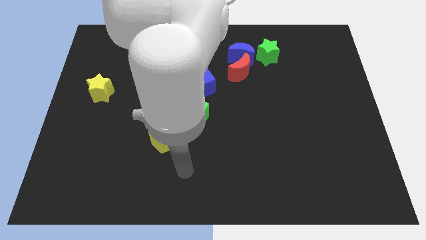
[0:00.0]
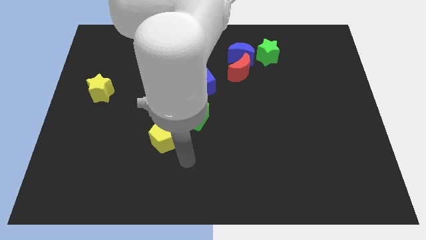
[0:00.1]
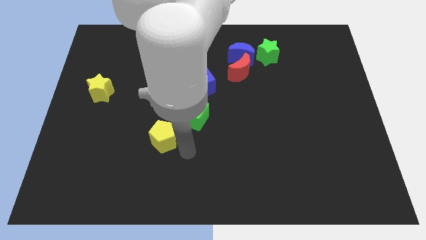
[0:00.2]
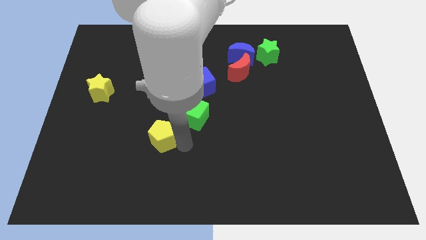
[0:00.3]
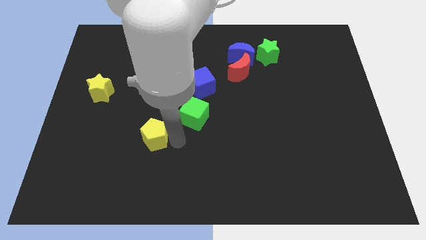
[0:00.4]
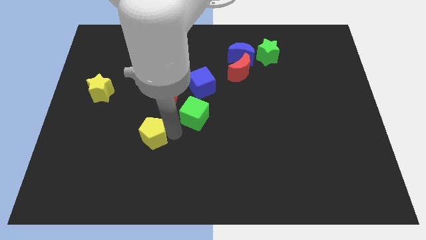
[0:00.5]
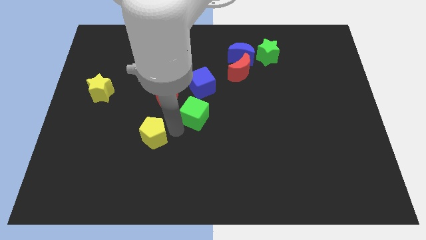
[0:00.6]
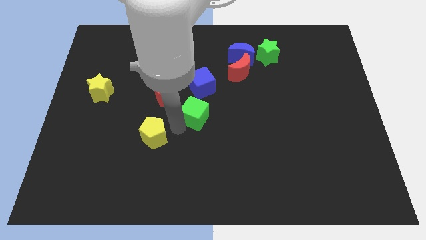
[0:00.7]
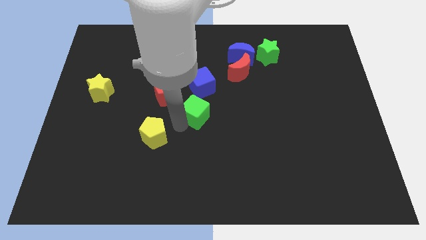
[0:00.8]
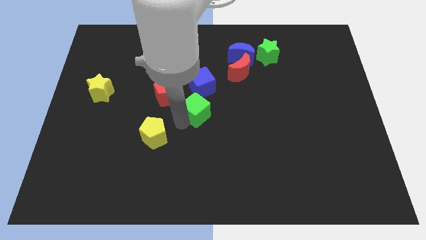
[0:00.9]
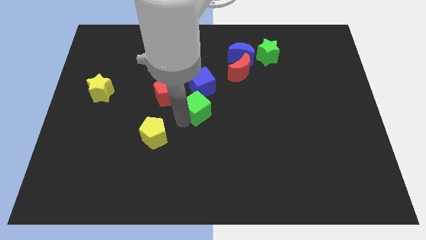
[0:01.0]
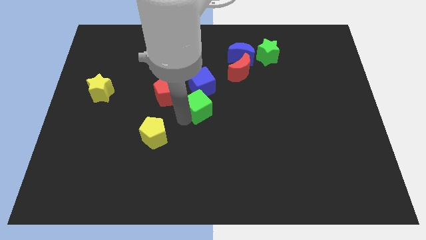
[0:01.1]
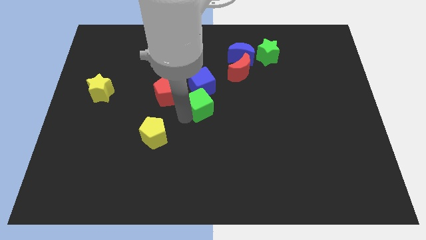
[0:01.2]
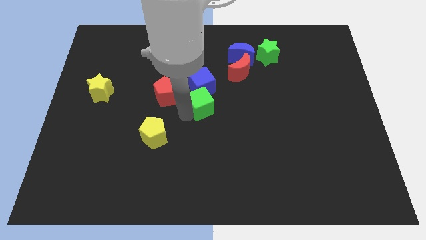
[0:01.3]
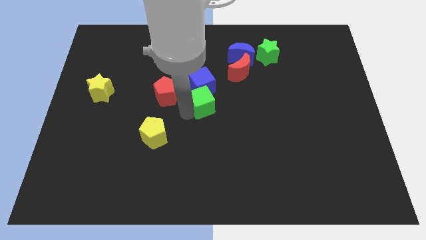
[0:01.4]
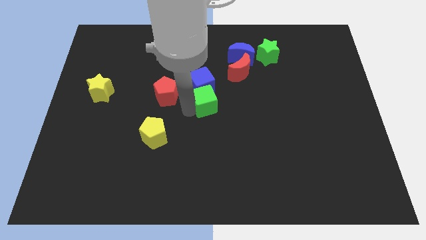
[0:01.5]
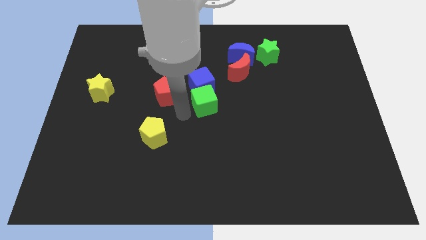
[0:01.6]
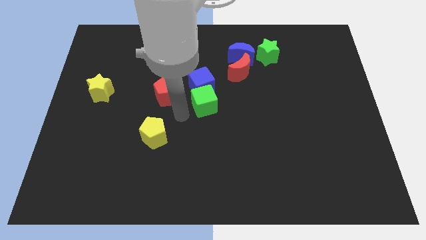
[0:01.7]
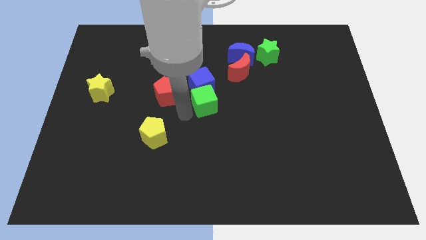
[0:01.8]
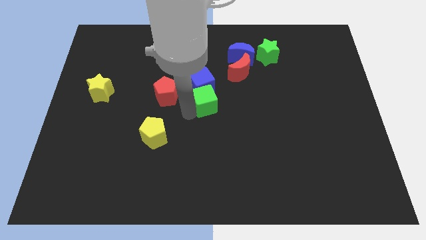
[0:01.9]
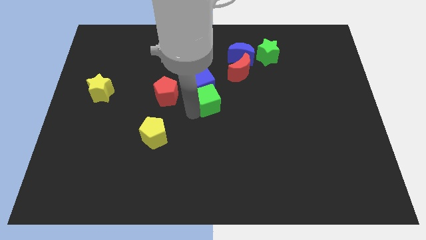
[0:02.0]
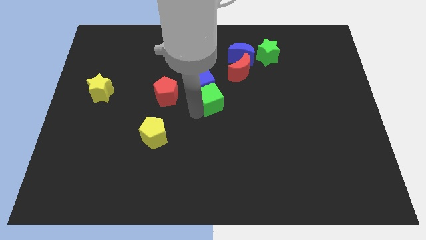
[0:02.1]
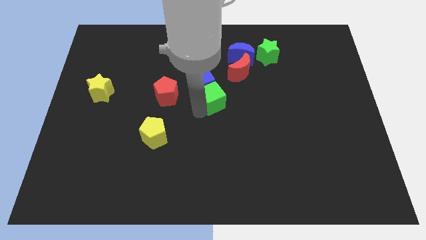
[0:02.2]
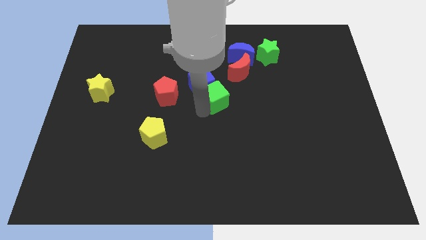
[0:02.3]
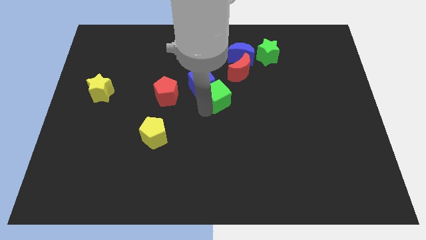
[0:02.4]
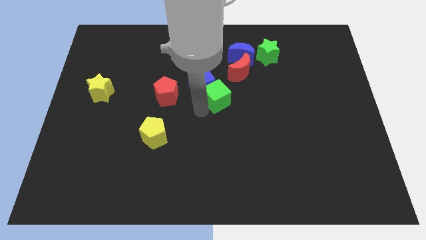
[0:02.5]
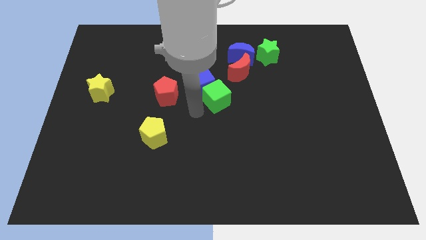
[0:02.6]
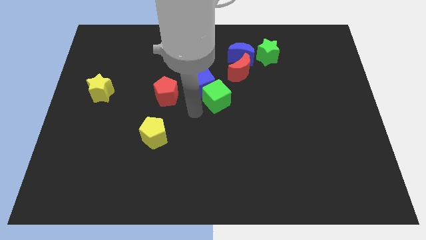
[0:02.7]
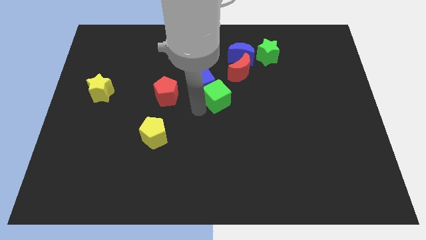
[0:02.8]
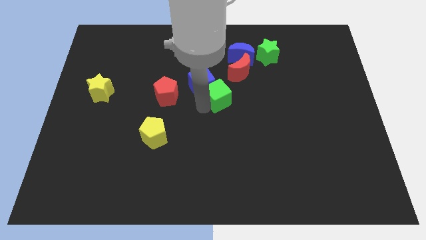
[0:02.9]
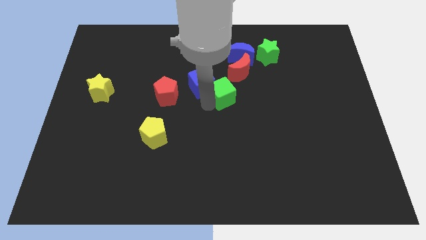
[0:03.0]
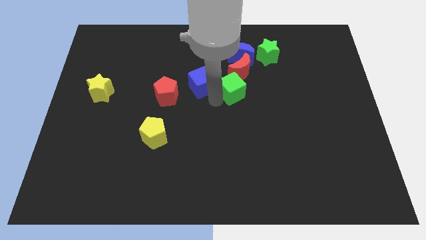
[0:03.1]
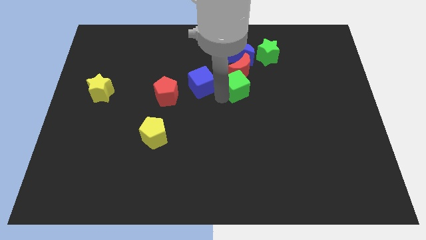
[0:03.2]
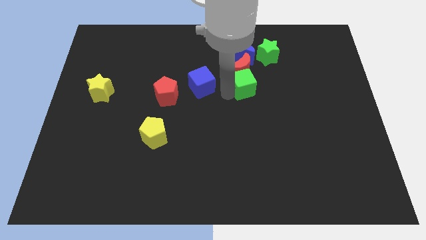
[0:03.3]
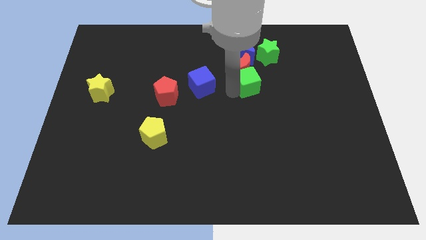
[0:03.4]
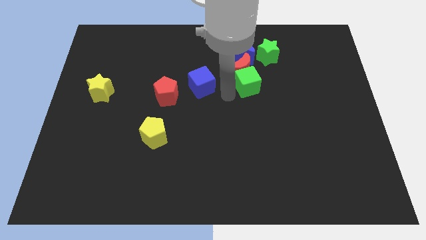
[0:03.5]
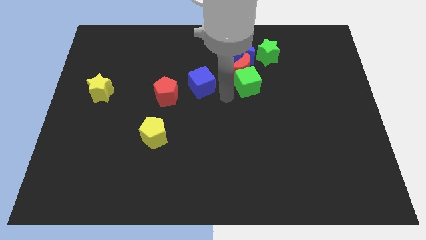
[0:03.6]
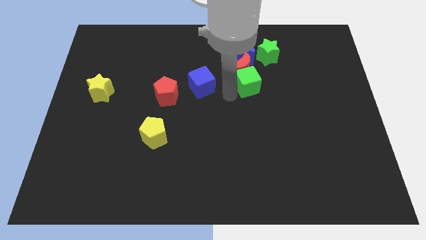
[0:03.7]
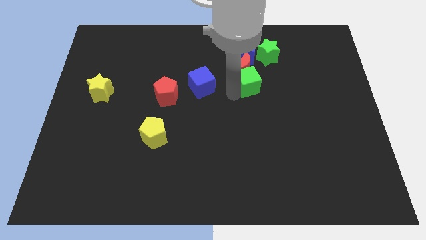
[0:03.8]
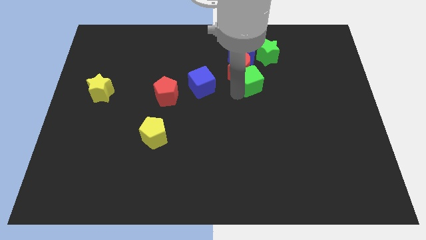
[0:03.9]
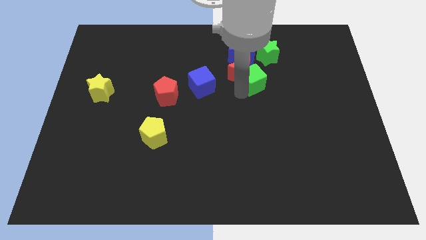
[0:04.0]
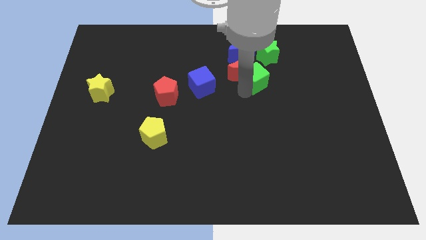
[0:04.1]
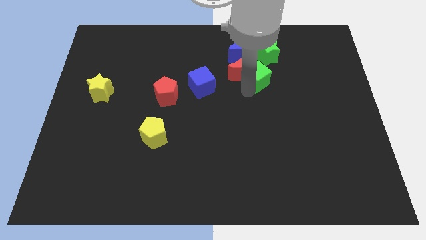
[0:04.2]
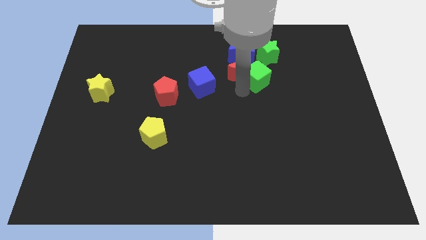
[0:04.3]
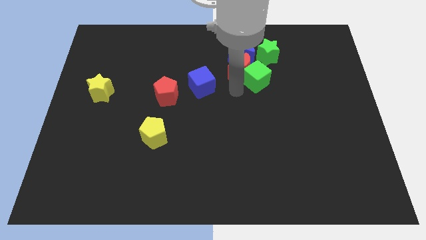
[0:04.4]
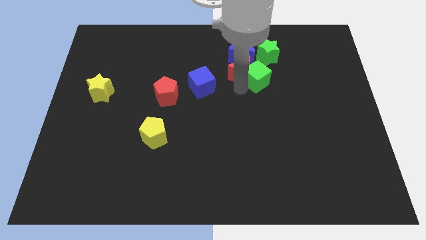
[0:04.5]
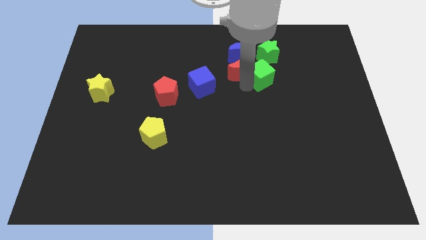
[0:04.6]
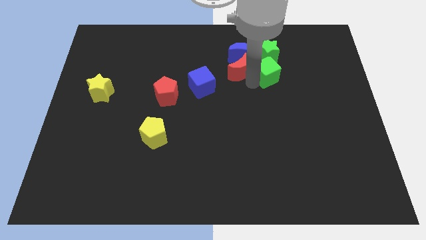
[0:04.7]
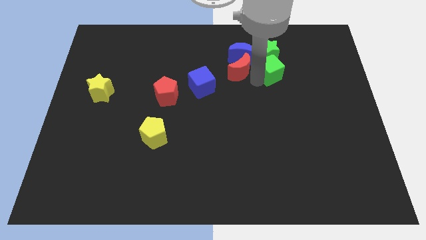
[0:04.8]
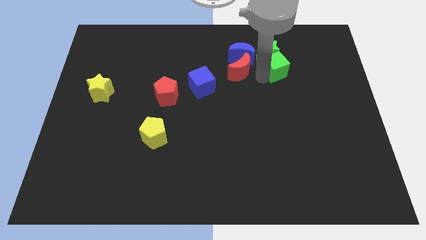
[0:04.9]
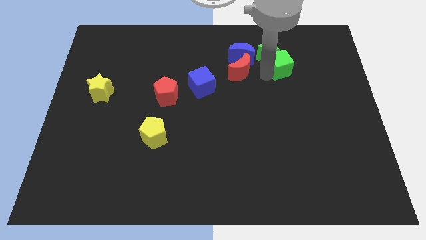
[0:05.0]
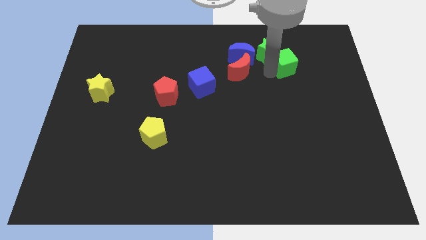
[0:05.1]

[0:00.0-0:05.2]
move the green cube to the right side of the green star

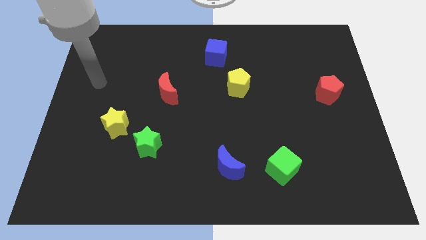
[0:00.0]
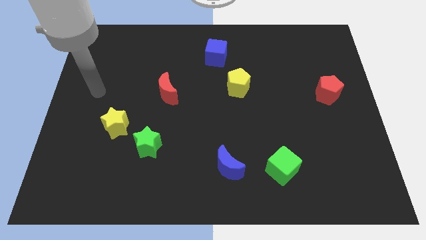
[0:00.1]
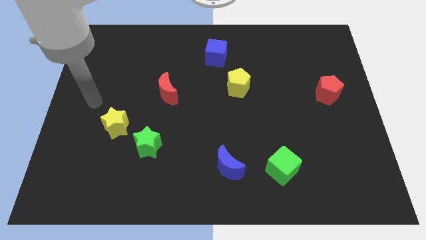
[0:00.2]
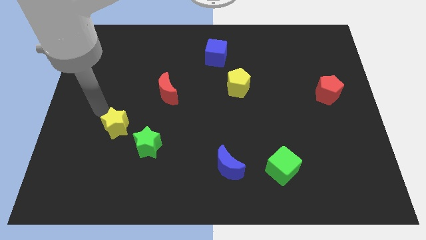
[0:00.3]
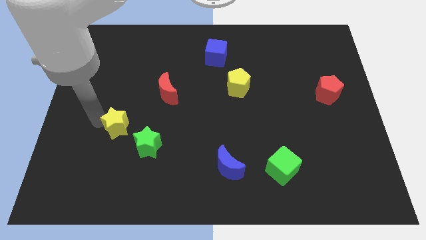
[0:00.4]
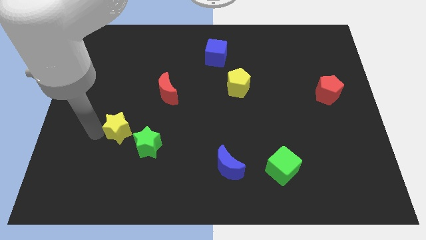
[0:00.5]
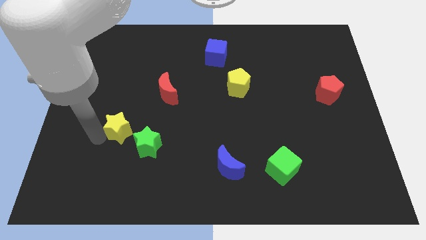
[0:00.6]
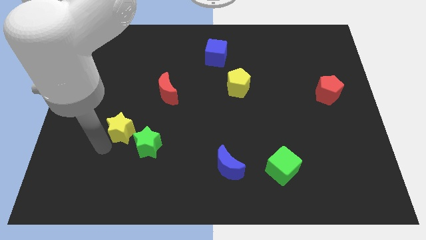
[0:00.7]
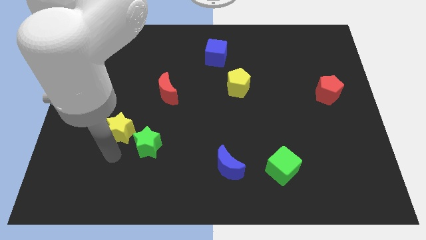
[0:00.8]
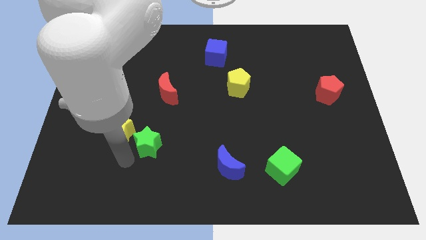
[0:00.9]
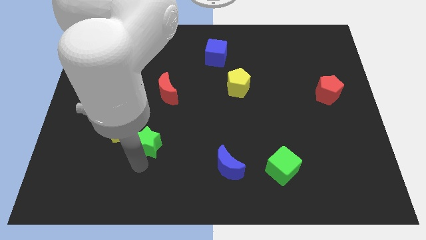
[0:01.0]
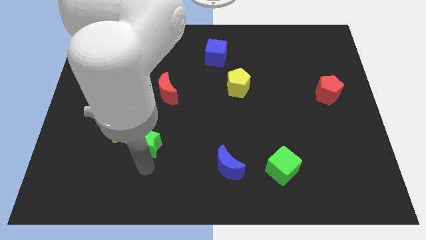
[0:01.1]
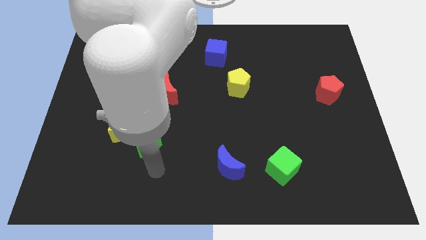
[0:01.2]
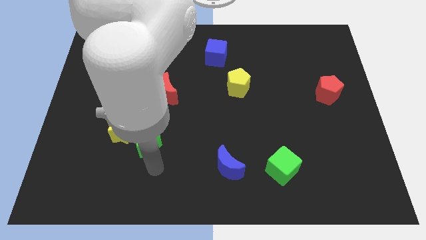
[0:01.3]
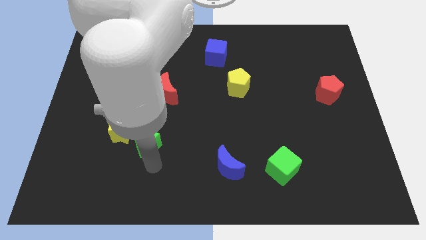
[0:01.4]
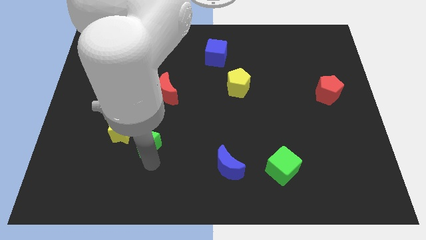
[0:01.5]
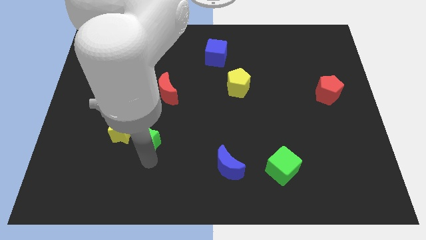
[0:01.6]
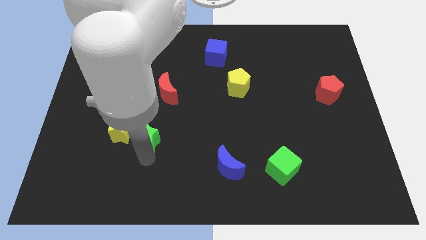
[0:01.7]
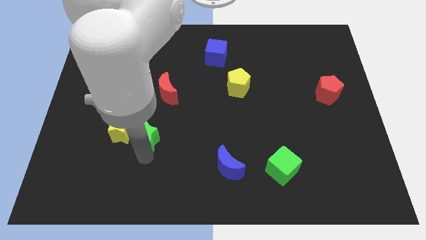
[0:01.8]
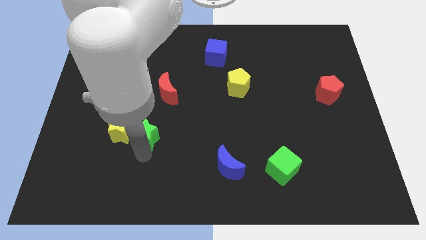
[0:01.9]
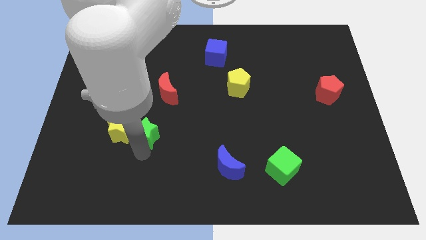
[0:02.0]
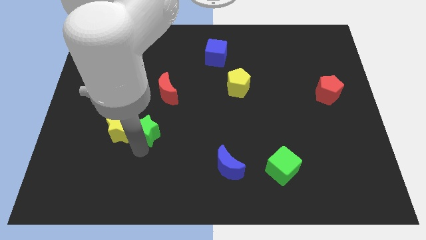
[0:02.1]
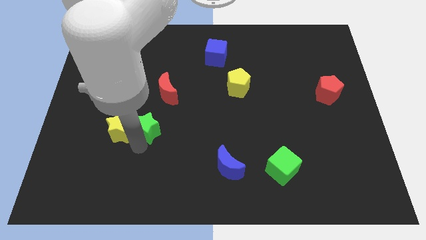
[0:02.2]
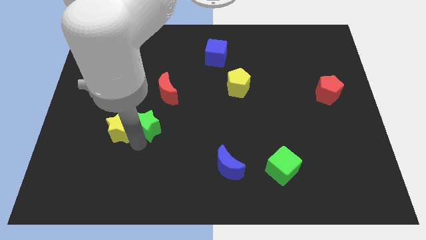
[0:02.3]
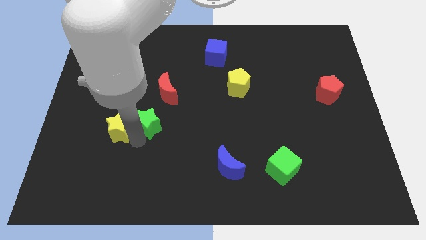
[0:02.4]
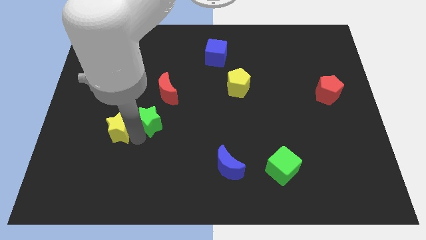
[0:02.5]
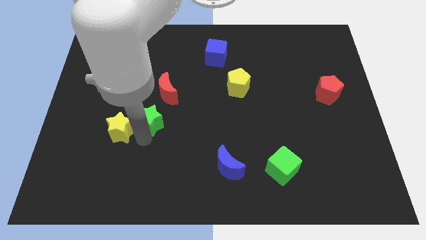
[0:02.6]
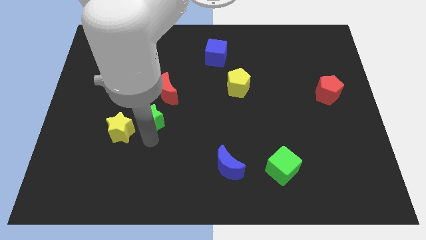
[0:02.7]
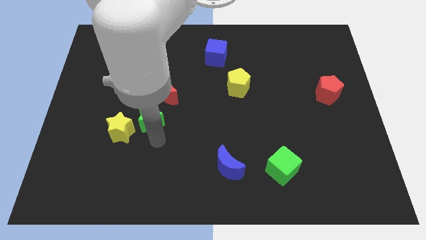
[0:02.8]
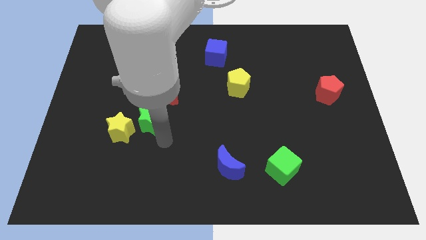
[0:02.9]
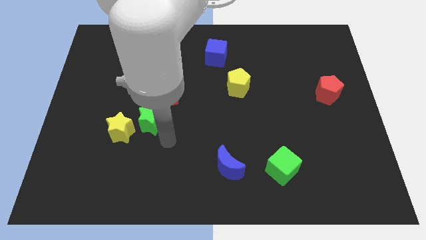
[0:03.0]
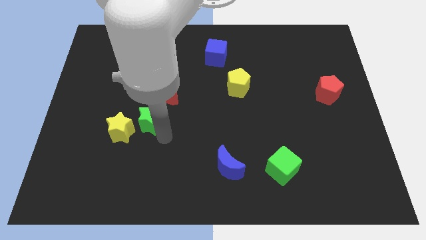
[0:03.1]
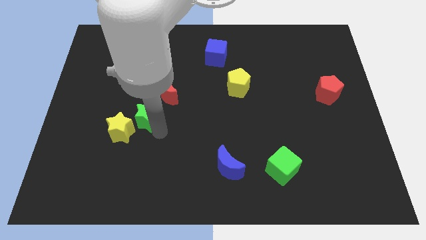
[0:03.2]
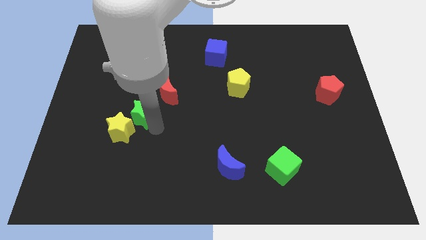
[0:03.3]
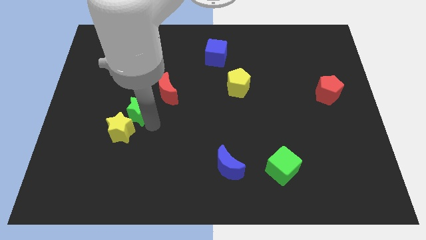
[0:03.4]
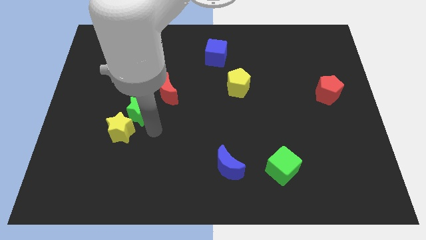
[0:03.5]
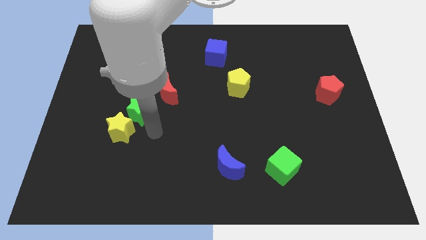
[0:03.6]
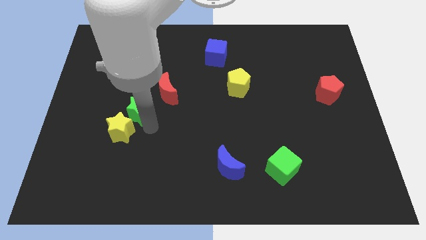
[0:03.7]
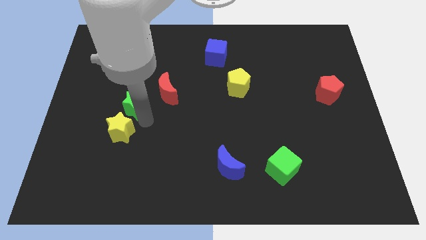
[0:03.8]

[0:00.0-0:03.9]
push the green star to the left of the red moon
